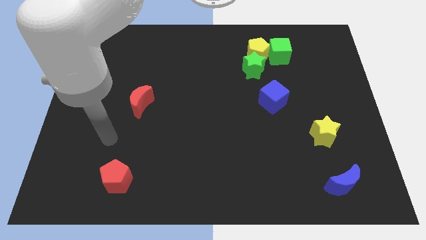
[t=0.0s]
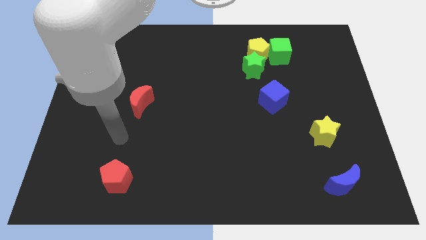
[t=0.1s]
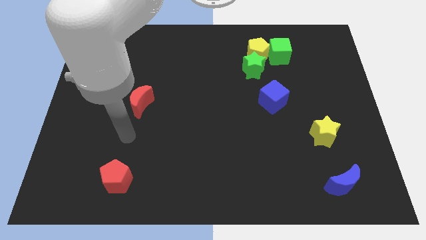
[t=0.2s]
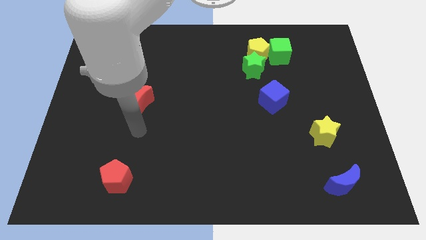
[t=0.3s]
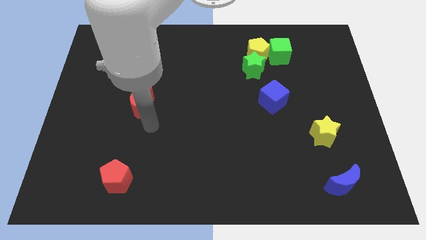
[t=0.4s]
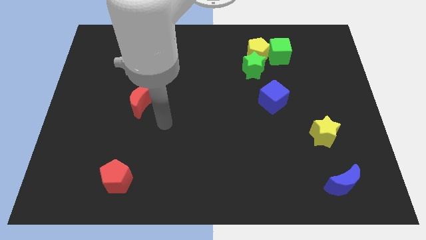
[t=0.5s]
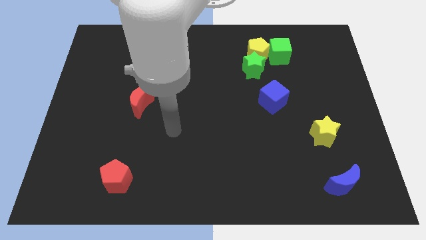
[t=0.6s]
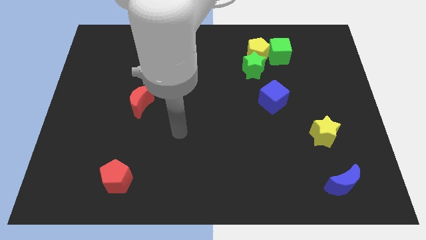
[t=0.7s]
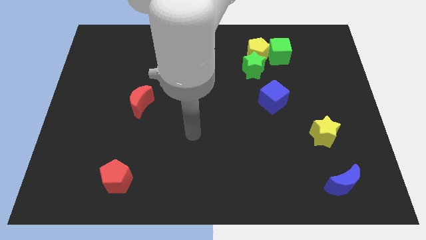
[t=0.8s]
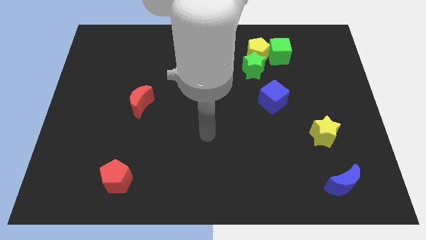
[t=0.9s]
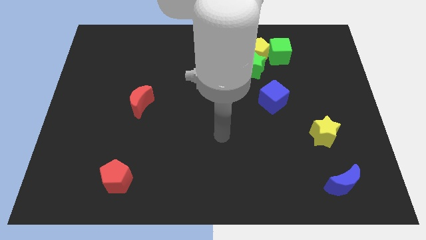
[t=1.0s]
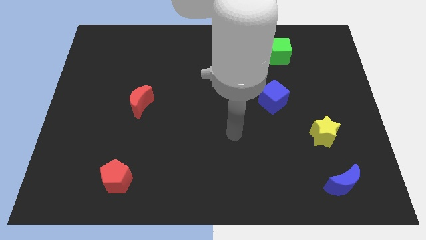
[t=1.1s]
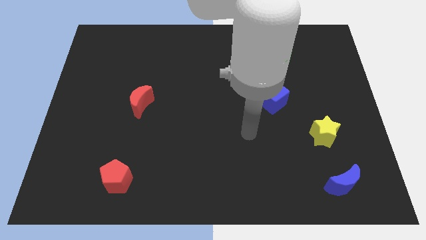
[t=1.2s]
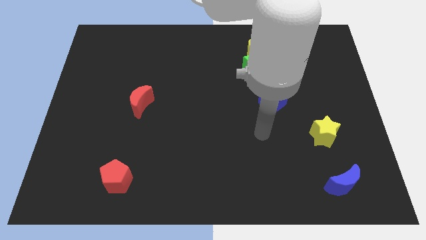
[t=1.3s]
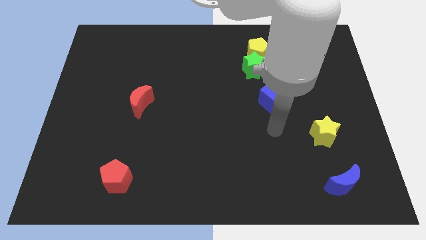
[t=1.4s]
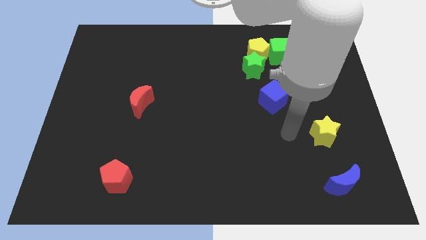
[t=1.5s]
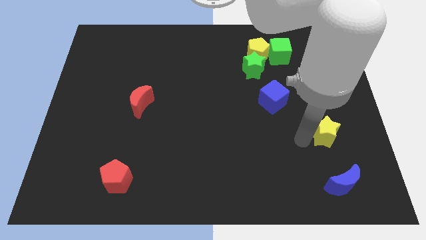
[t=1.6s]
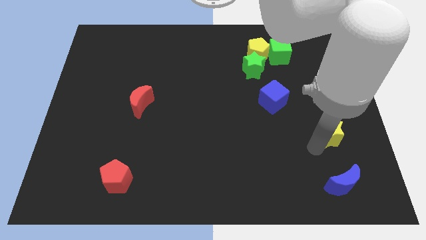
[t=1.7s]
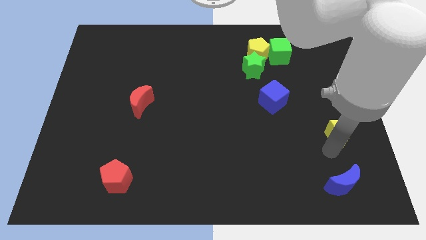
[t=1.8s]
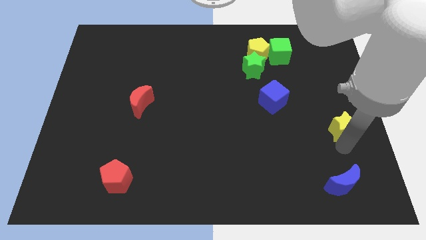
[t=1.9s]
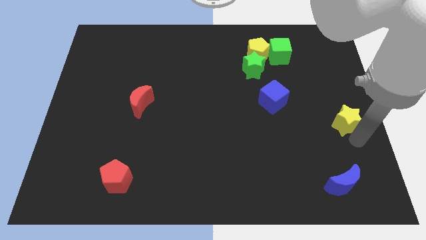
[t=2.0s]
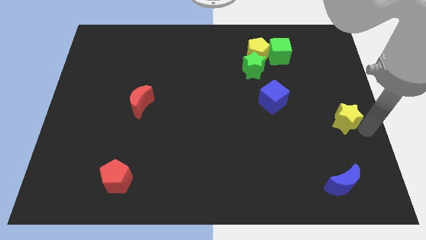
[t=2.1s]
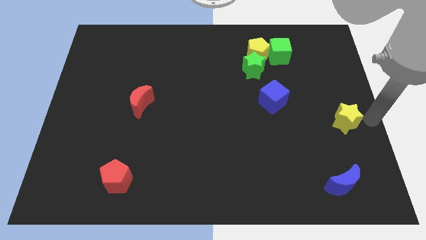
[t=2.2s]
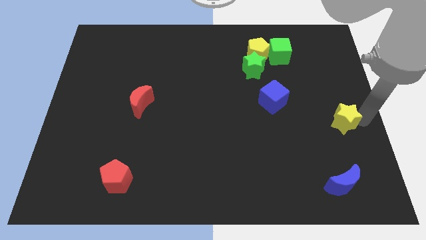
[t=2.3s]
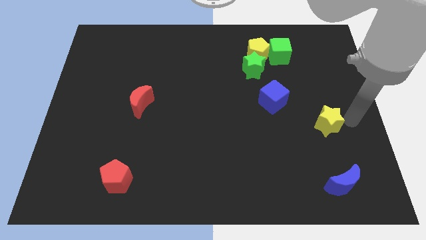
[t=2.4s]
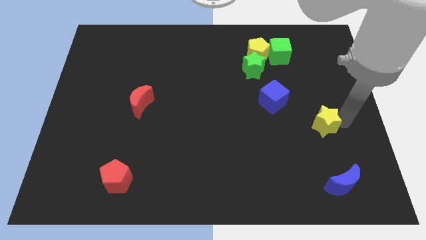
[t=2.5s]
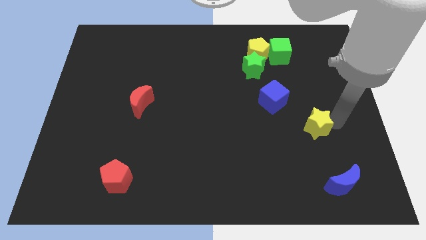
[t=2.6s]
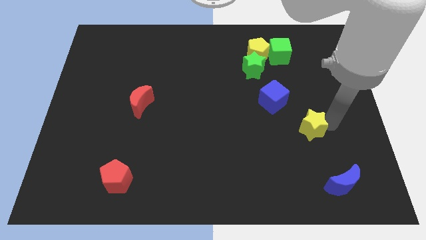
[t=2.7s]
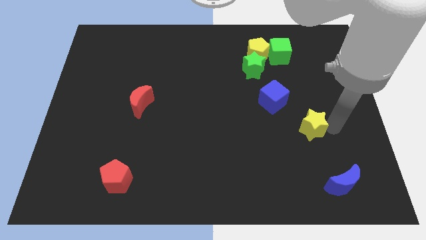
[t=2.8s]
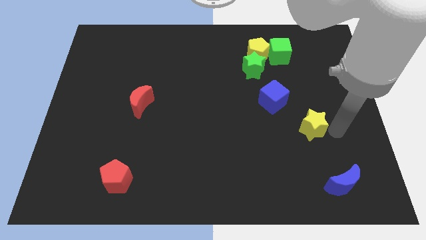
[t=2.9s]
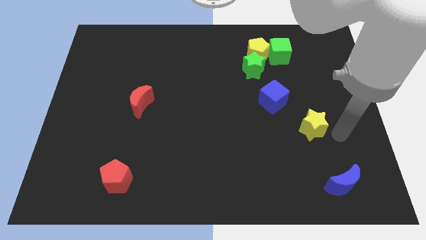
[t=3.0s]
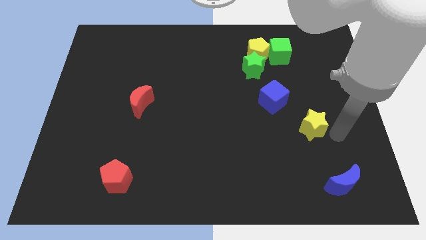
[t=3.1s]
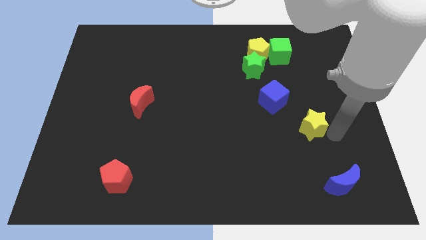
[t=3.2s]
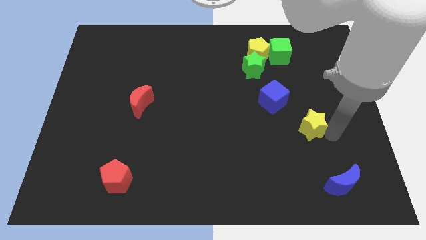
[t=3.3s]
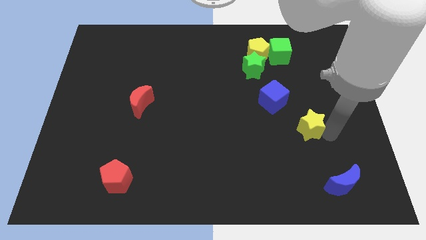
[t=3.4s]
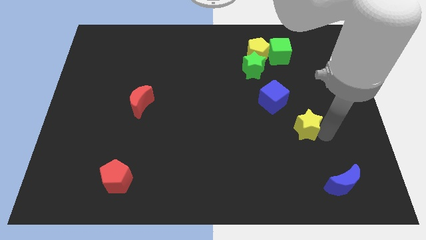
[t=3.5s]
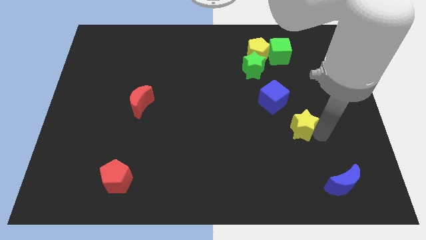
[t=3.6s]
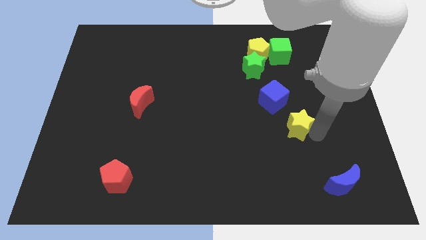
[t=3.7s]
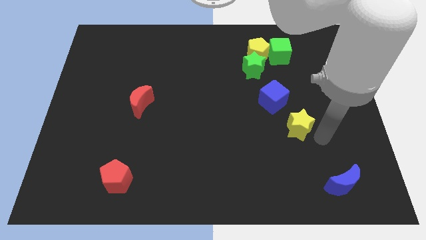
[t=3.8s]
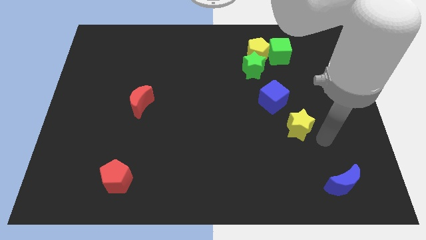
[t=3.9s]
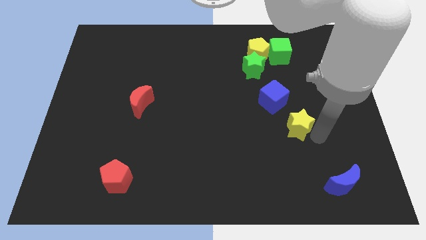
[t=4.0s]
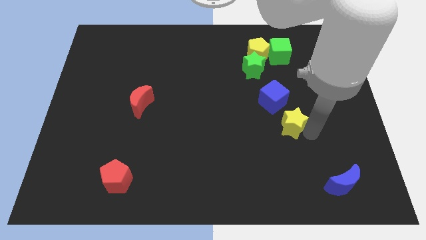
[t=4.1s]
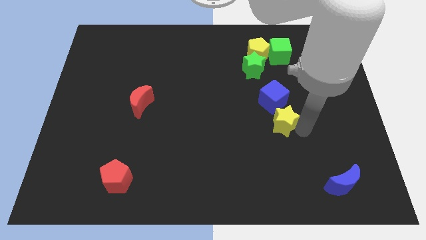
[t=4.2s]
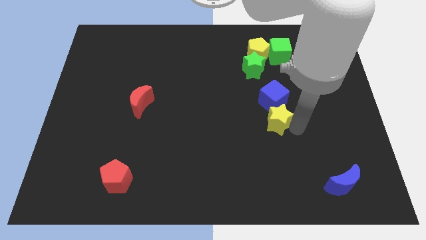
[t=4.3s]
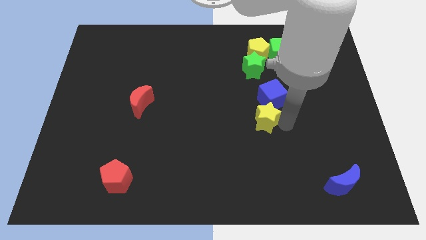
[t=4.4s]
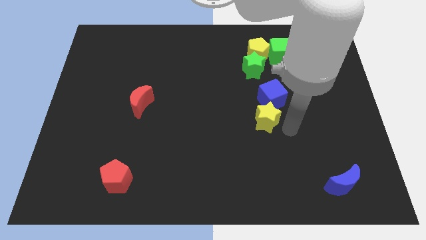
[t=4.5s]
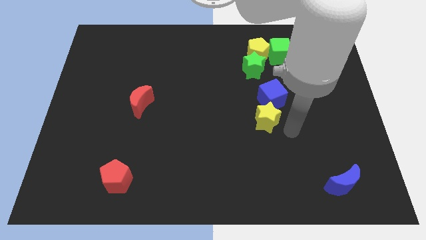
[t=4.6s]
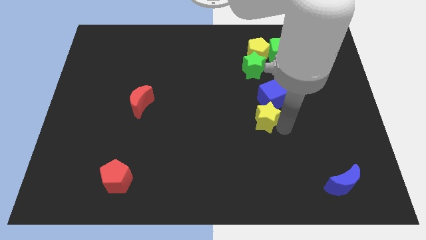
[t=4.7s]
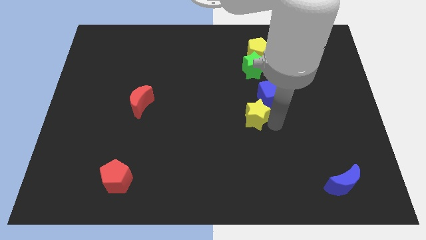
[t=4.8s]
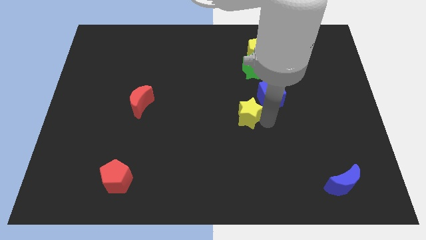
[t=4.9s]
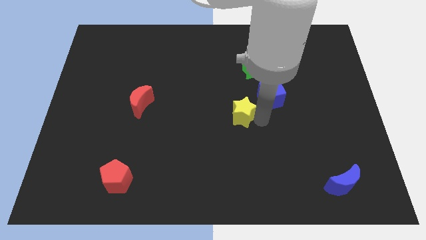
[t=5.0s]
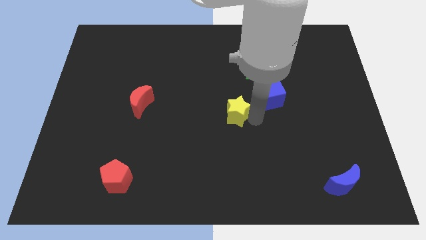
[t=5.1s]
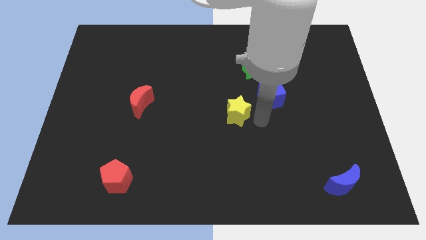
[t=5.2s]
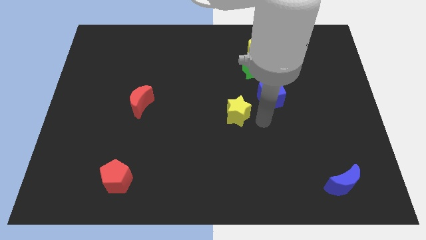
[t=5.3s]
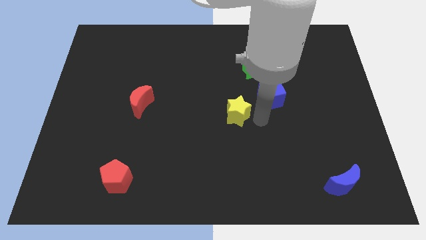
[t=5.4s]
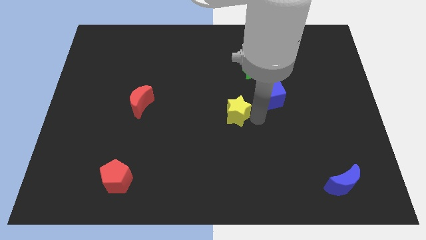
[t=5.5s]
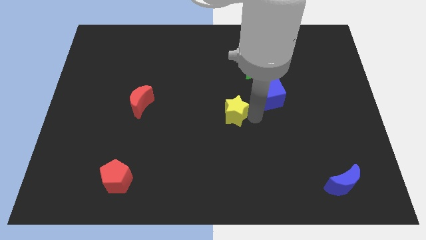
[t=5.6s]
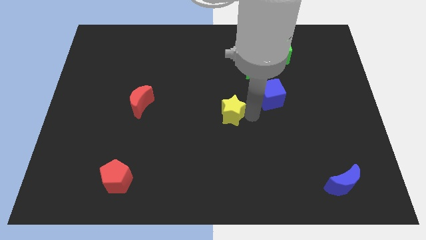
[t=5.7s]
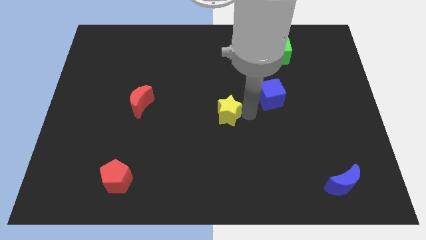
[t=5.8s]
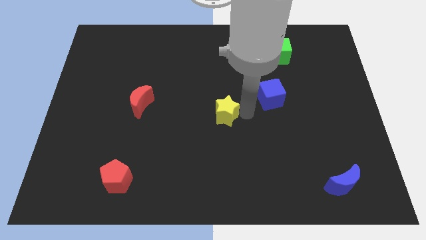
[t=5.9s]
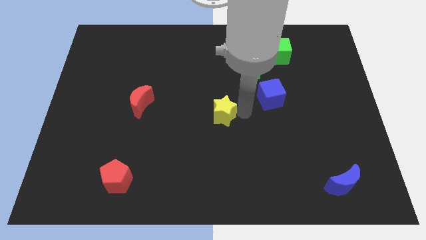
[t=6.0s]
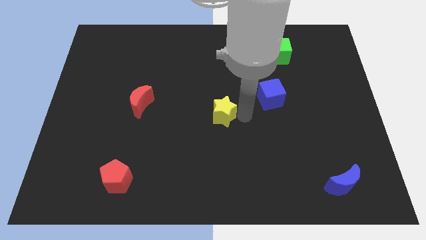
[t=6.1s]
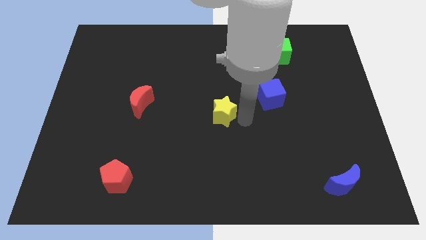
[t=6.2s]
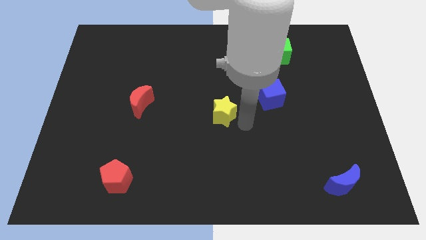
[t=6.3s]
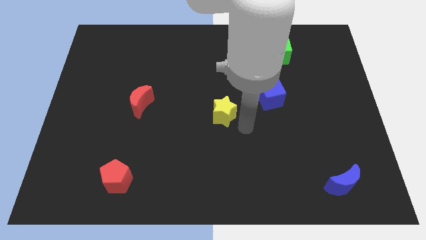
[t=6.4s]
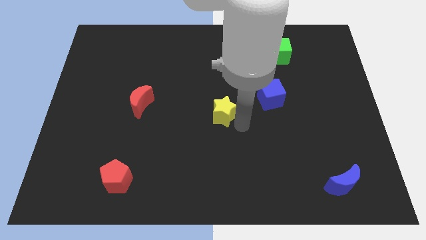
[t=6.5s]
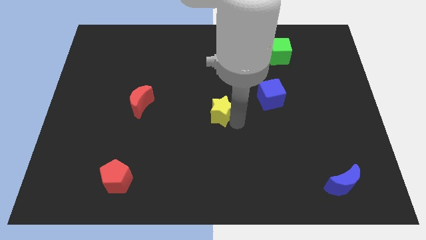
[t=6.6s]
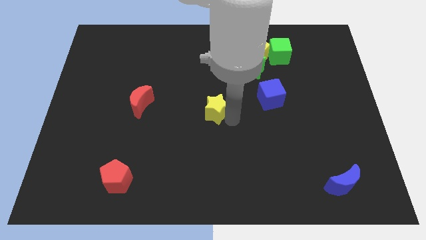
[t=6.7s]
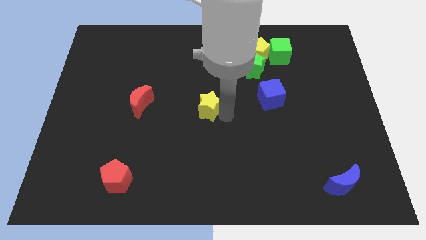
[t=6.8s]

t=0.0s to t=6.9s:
push the yellow star right of the red moon

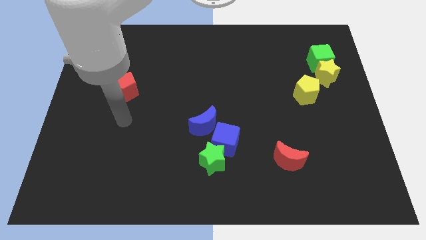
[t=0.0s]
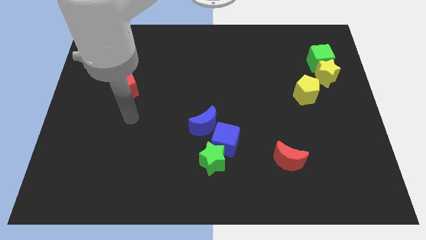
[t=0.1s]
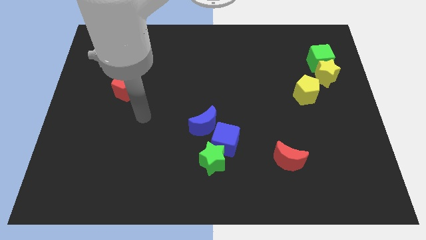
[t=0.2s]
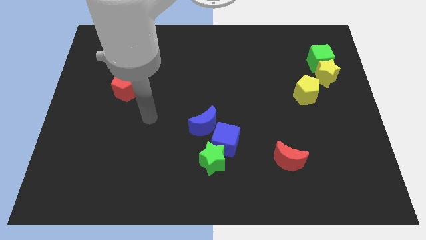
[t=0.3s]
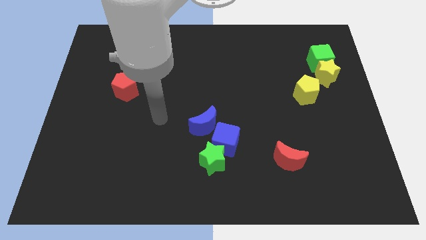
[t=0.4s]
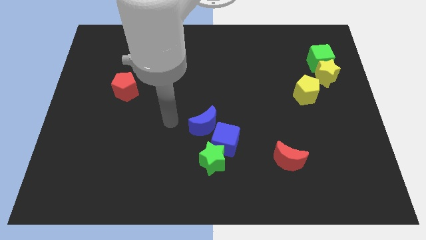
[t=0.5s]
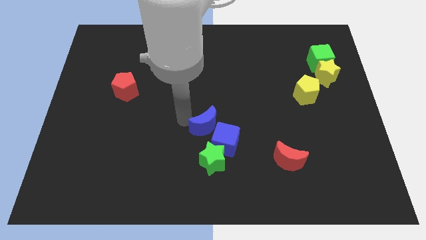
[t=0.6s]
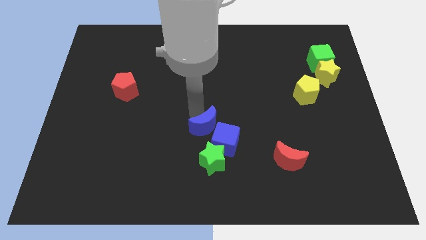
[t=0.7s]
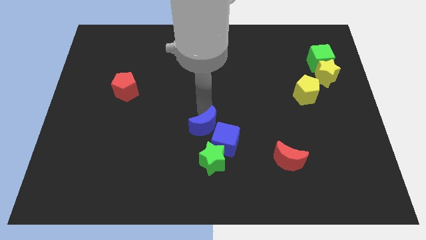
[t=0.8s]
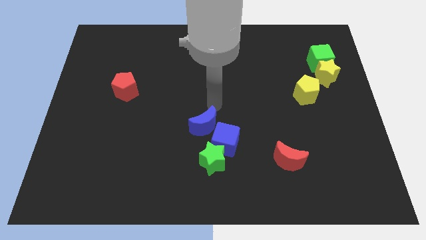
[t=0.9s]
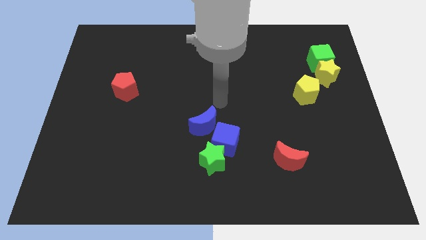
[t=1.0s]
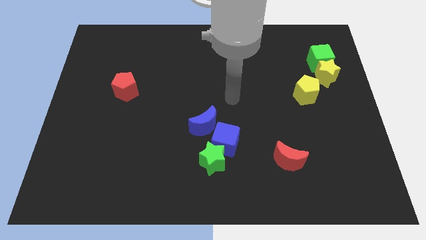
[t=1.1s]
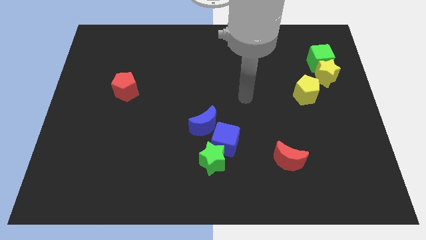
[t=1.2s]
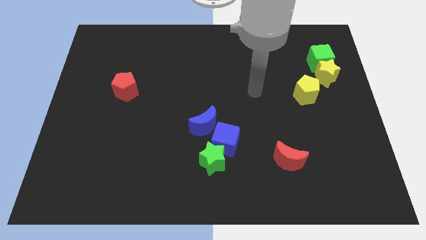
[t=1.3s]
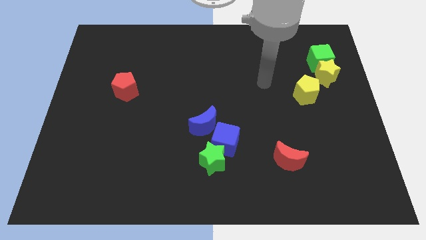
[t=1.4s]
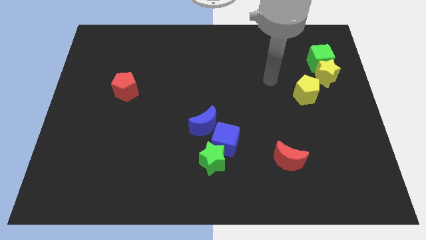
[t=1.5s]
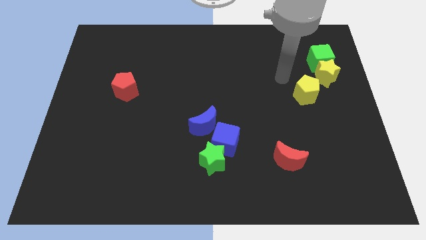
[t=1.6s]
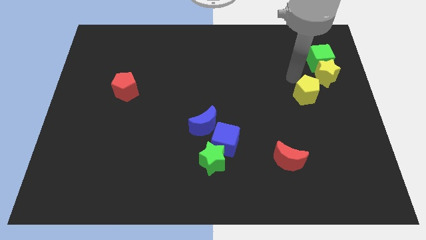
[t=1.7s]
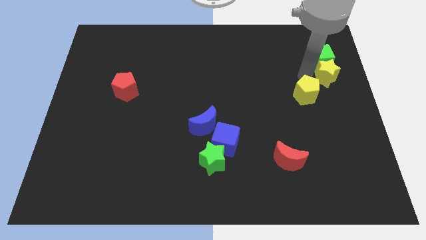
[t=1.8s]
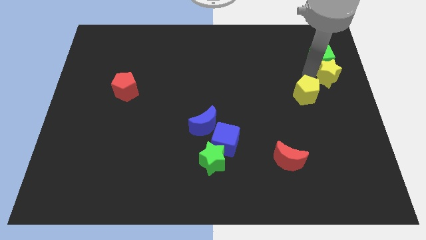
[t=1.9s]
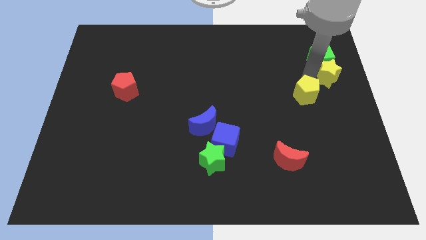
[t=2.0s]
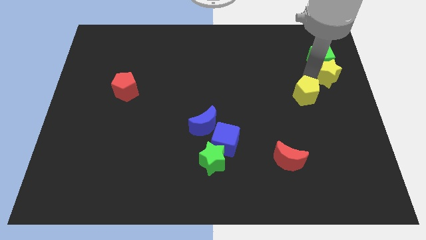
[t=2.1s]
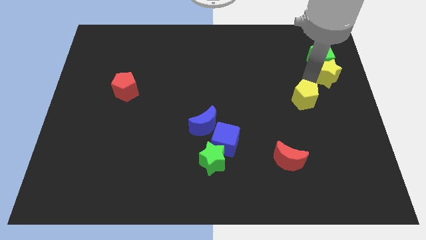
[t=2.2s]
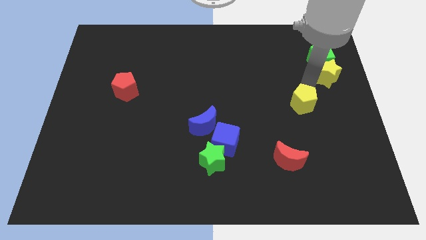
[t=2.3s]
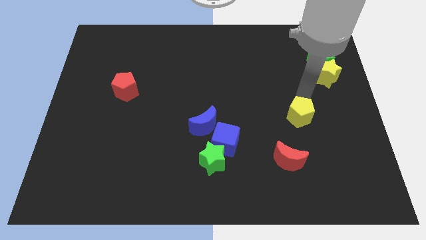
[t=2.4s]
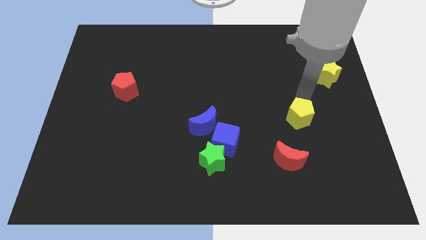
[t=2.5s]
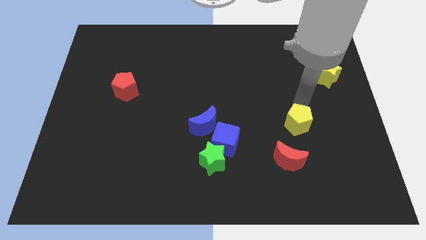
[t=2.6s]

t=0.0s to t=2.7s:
move the yellow pentagon to the top right side of the red moon
